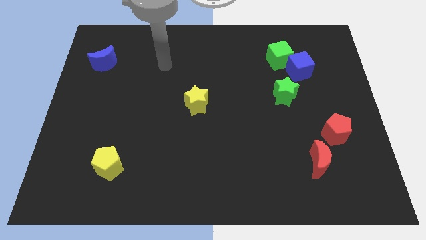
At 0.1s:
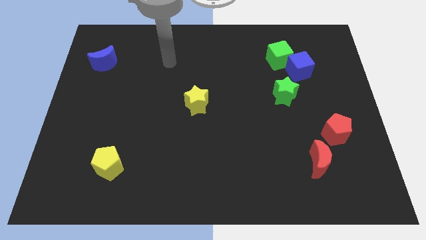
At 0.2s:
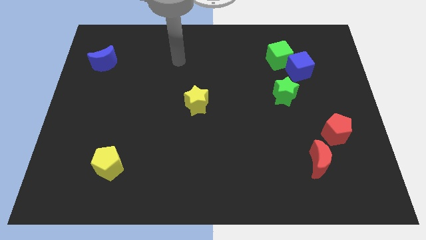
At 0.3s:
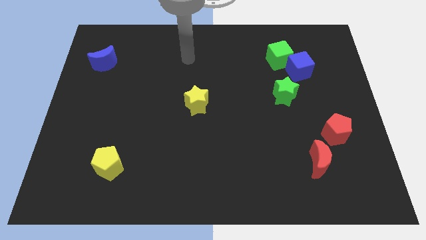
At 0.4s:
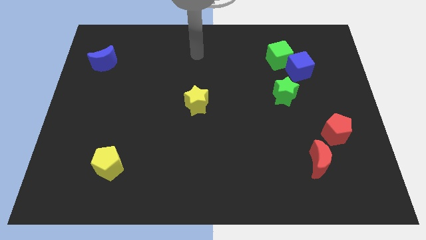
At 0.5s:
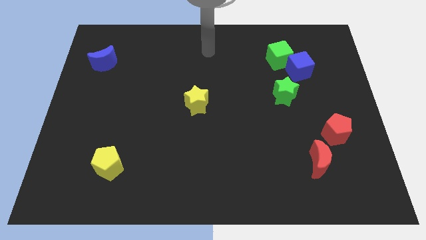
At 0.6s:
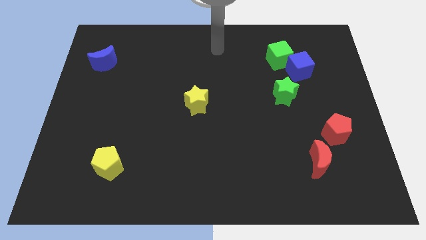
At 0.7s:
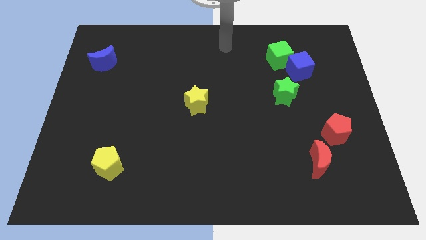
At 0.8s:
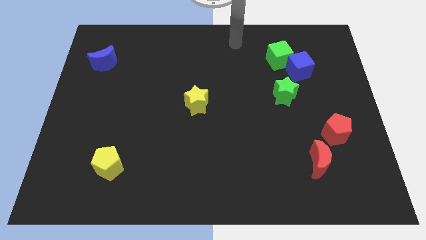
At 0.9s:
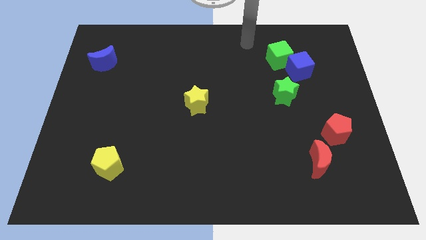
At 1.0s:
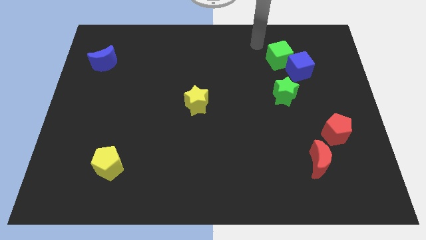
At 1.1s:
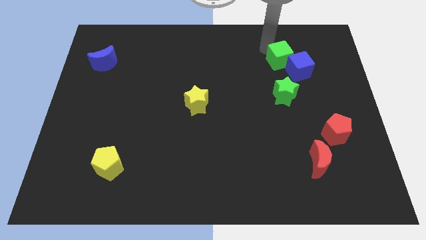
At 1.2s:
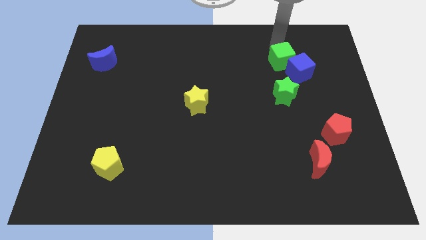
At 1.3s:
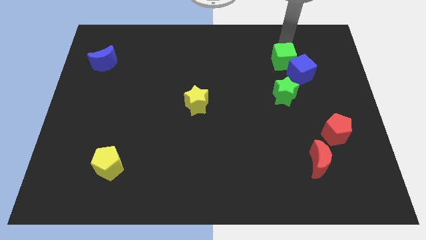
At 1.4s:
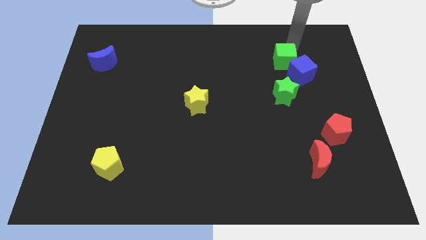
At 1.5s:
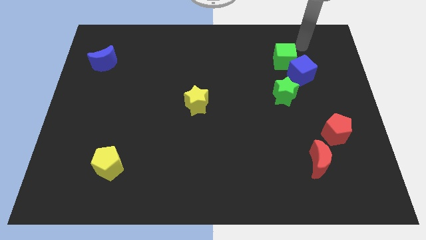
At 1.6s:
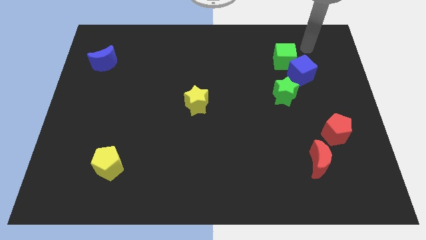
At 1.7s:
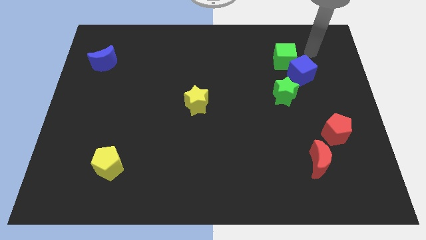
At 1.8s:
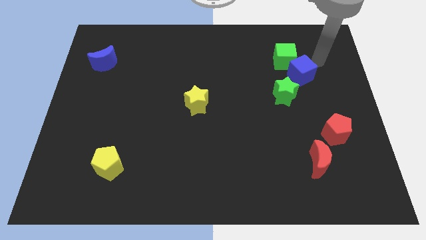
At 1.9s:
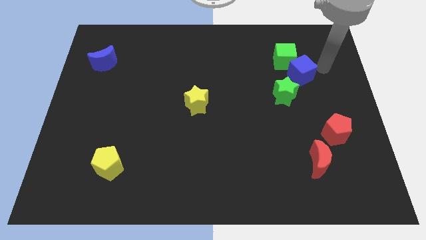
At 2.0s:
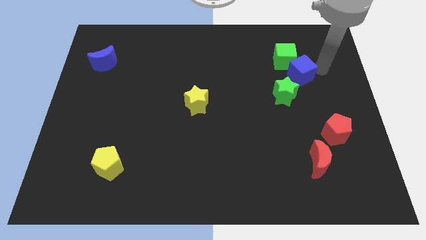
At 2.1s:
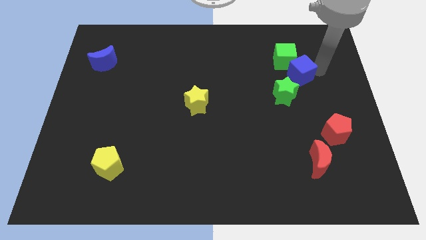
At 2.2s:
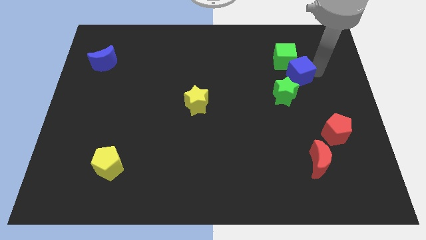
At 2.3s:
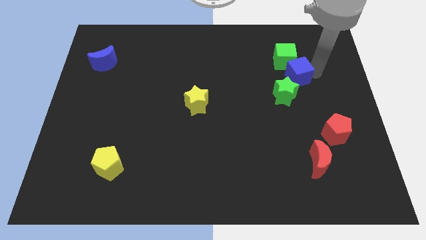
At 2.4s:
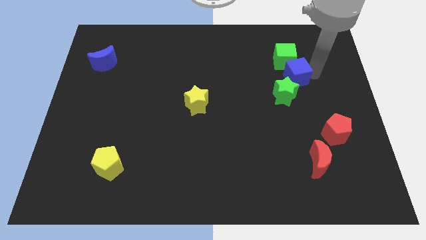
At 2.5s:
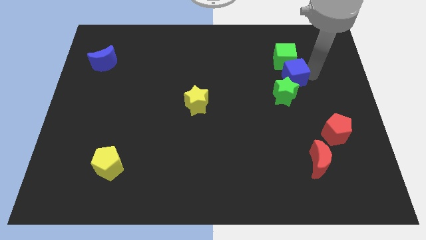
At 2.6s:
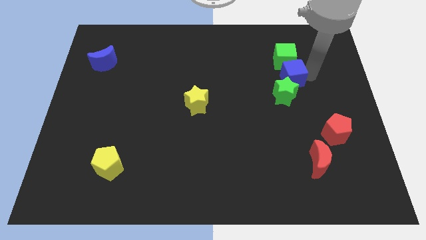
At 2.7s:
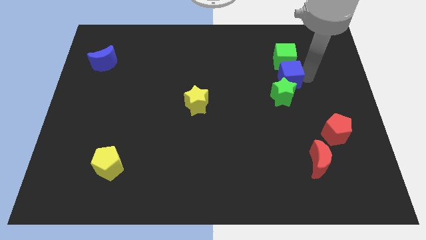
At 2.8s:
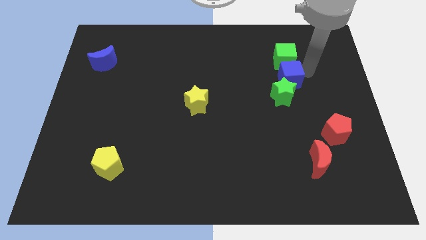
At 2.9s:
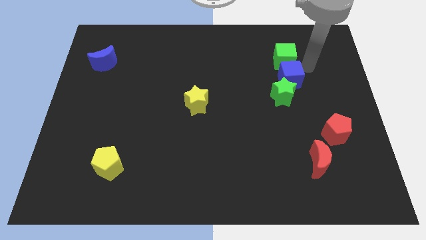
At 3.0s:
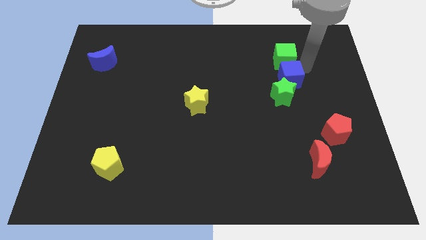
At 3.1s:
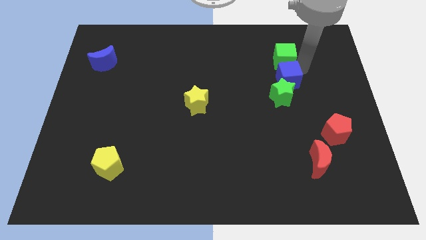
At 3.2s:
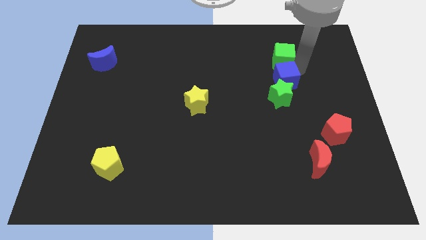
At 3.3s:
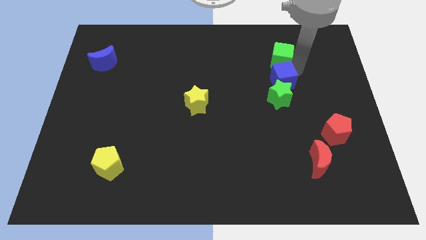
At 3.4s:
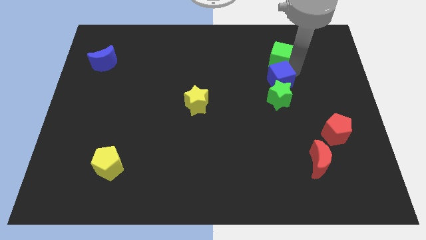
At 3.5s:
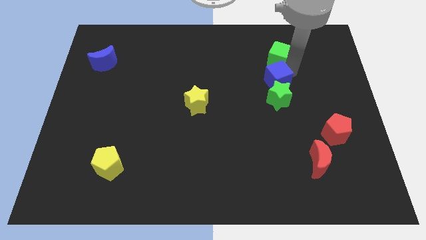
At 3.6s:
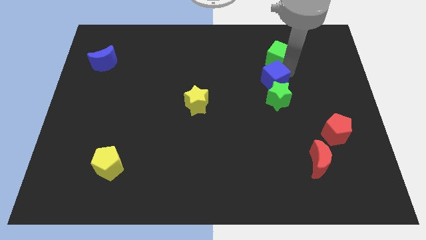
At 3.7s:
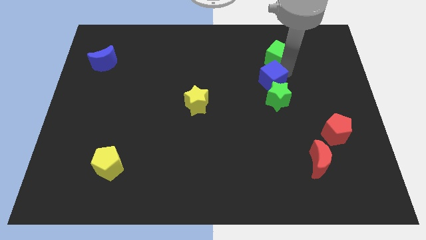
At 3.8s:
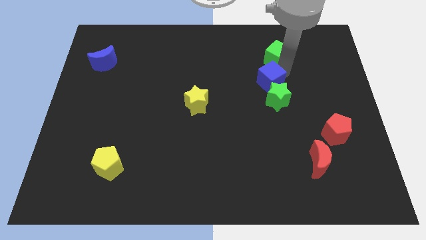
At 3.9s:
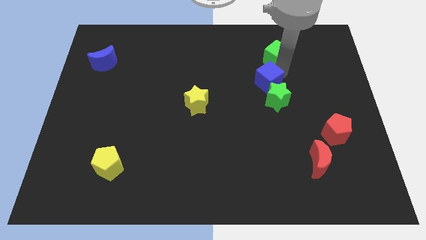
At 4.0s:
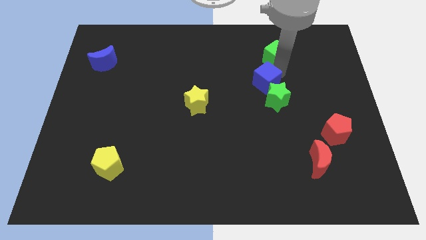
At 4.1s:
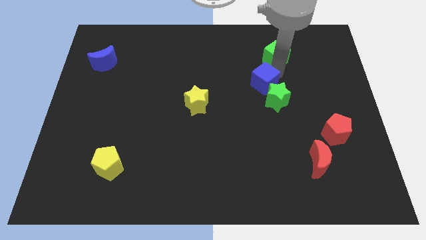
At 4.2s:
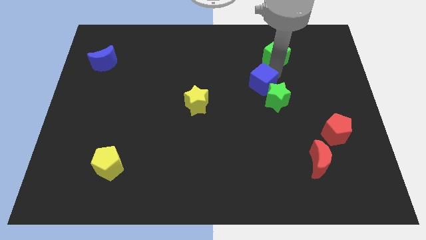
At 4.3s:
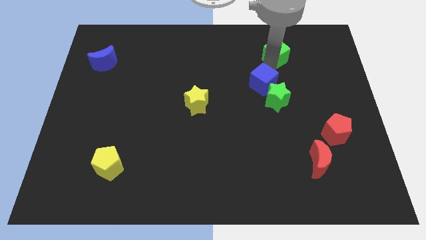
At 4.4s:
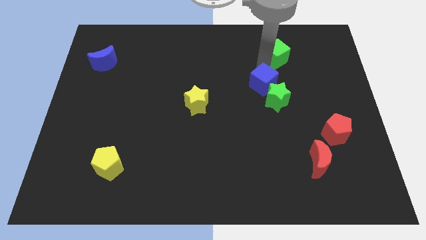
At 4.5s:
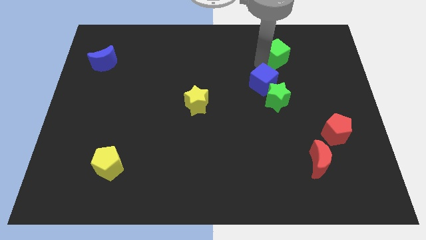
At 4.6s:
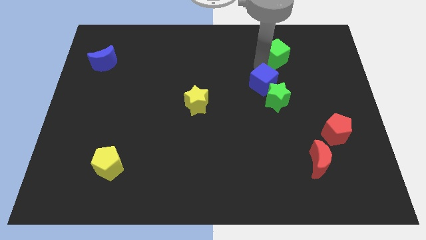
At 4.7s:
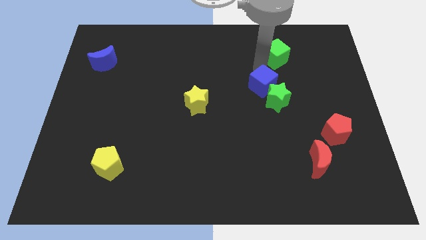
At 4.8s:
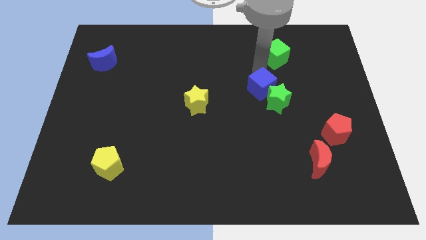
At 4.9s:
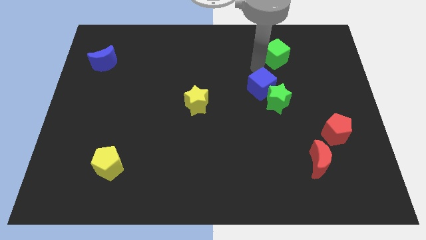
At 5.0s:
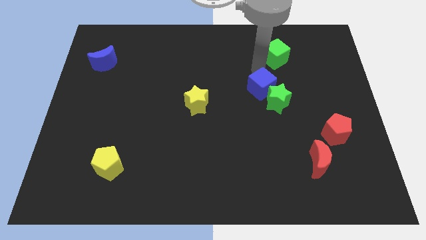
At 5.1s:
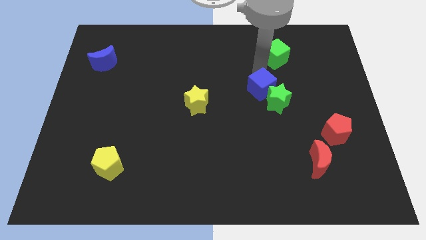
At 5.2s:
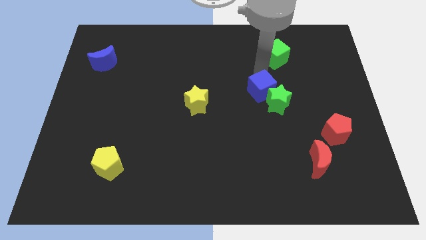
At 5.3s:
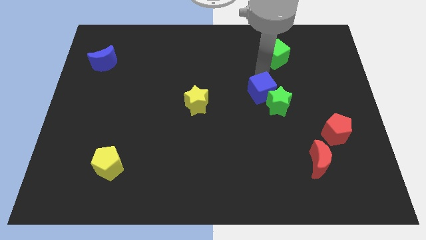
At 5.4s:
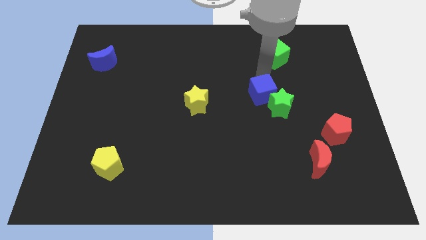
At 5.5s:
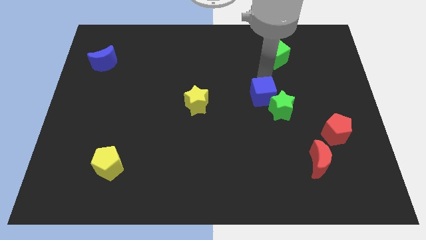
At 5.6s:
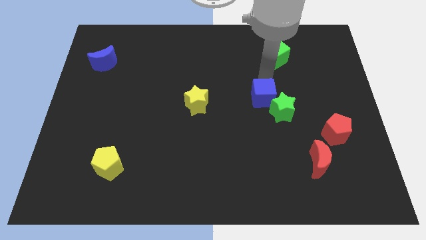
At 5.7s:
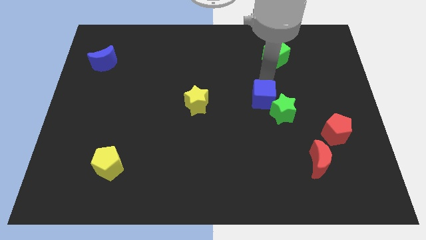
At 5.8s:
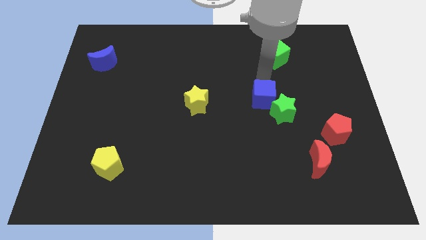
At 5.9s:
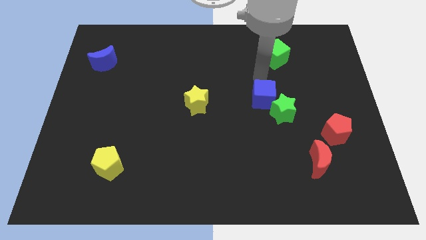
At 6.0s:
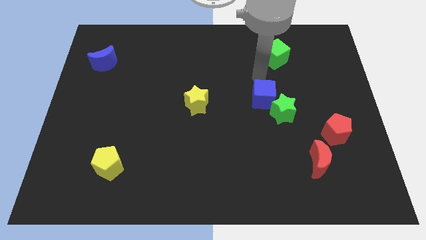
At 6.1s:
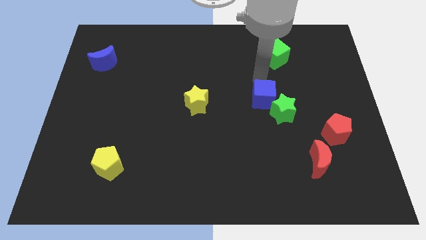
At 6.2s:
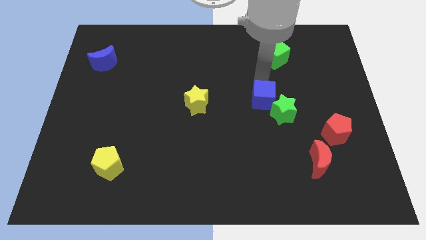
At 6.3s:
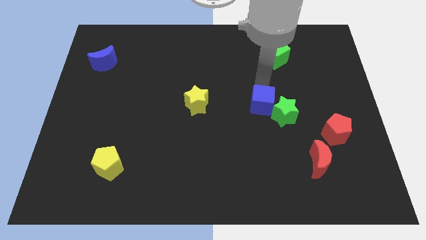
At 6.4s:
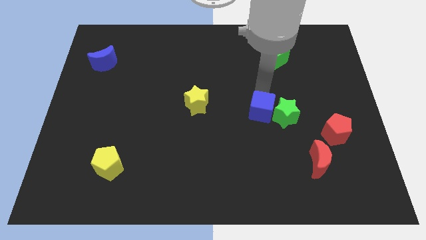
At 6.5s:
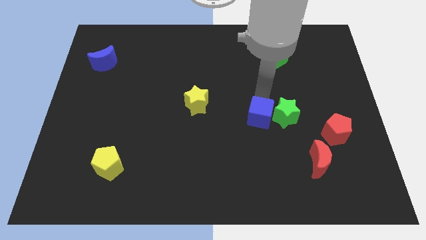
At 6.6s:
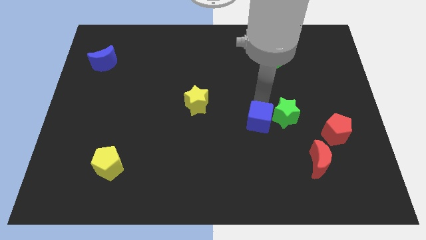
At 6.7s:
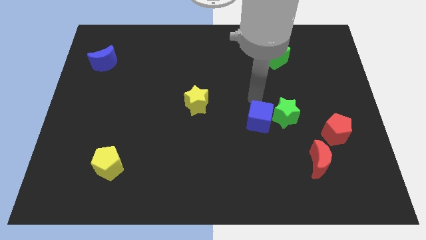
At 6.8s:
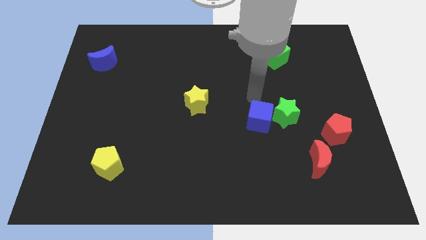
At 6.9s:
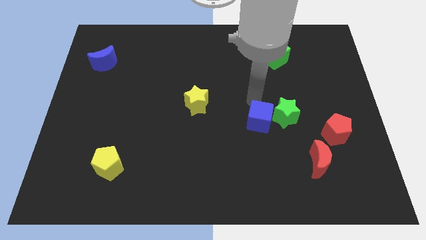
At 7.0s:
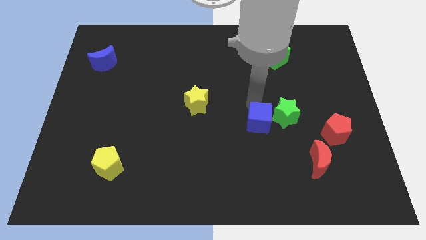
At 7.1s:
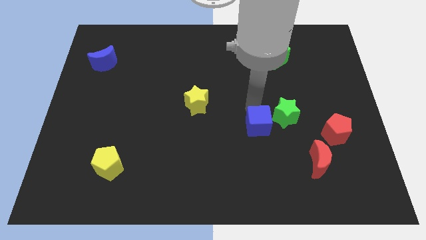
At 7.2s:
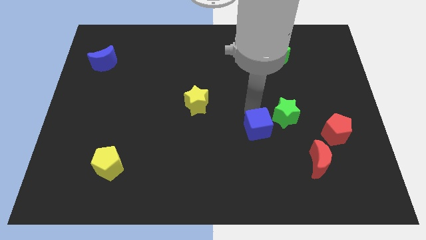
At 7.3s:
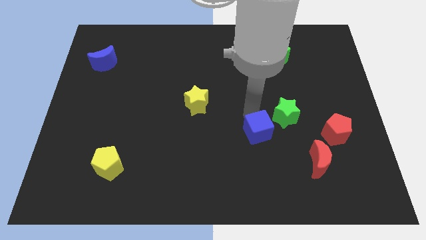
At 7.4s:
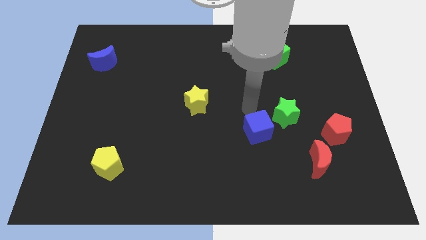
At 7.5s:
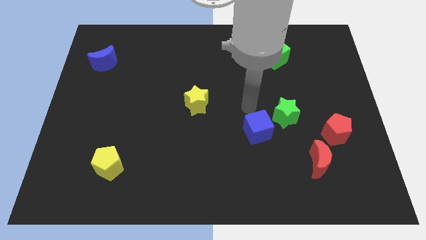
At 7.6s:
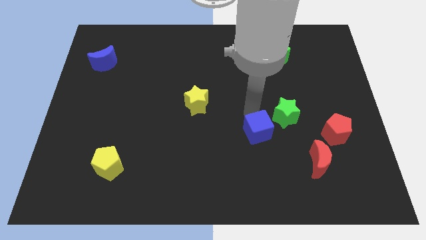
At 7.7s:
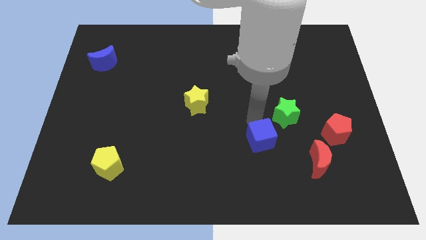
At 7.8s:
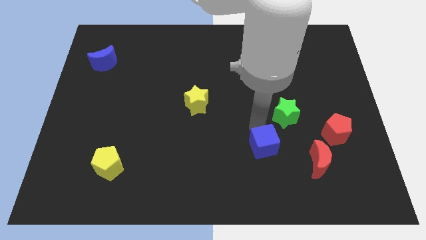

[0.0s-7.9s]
move the blue cube just left of the red moon
